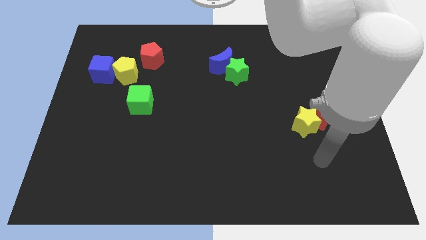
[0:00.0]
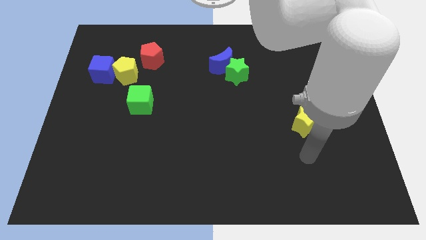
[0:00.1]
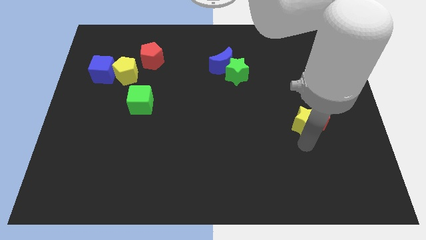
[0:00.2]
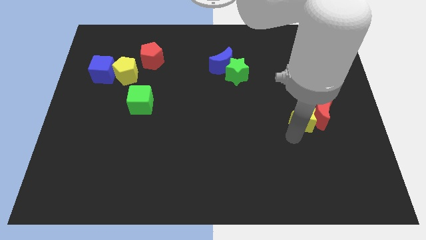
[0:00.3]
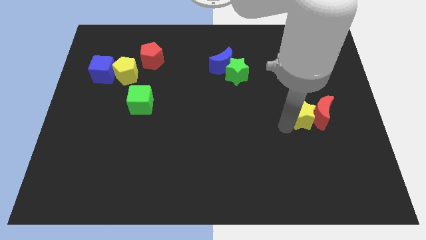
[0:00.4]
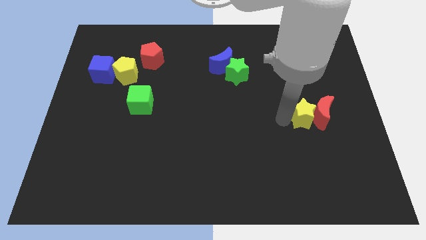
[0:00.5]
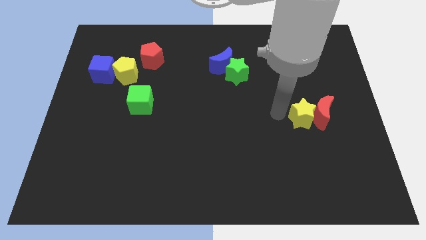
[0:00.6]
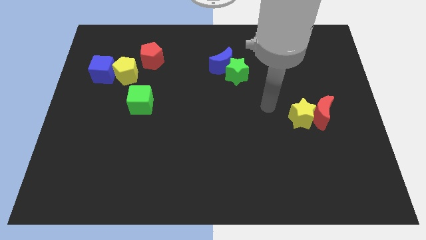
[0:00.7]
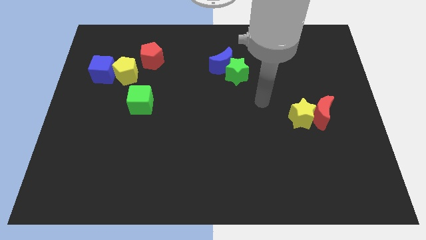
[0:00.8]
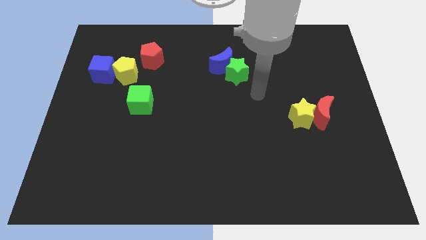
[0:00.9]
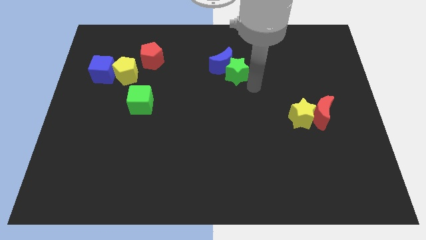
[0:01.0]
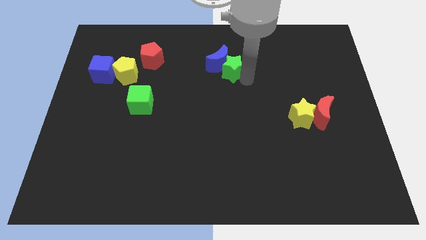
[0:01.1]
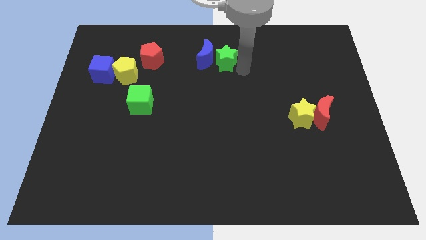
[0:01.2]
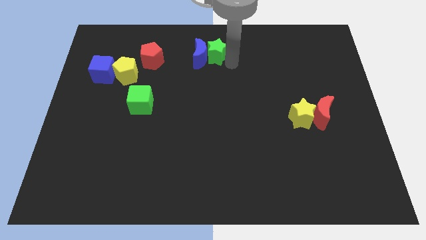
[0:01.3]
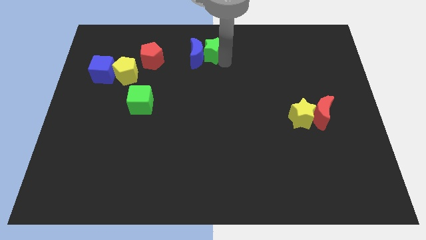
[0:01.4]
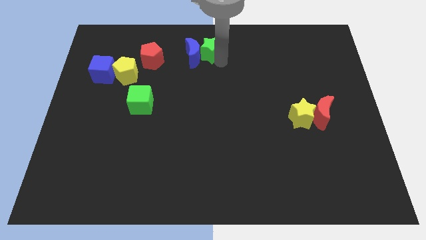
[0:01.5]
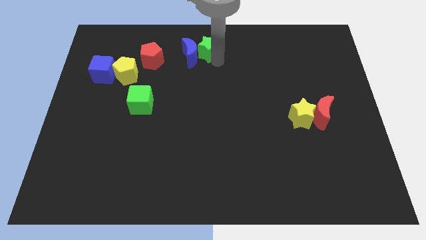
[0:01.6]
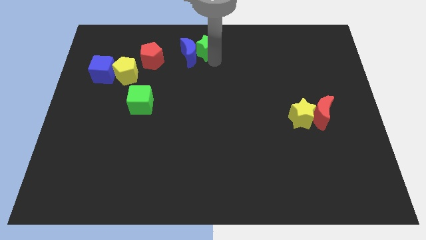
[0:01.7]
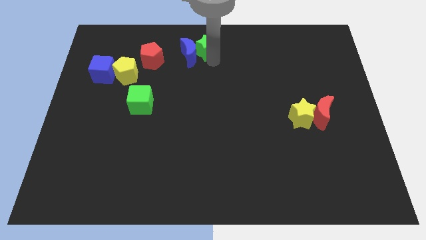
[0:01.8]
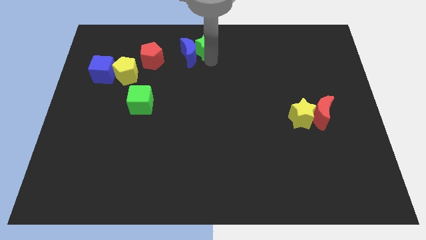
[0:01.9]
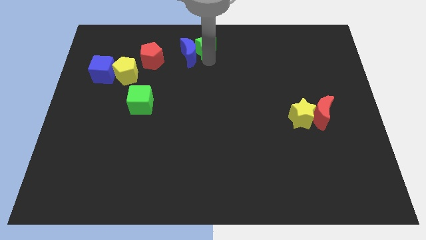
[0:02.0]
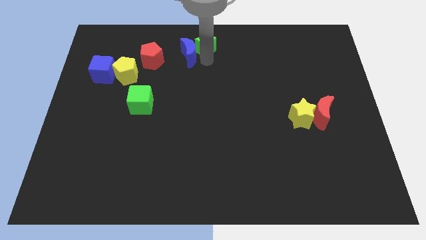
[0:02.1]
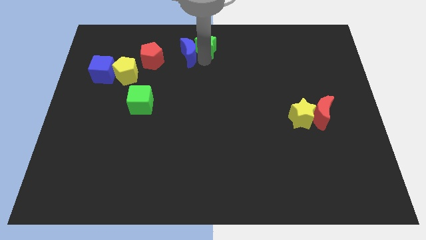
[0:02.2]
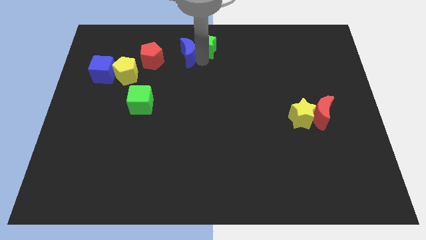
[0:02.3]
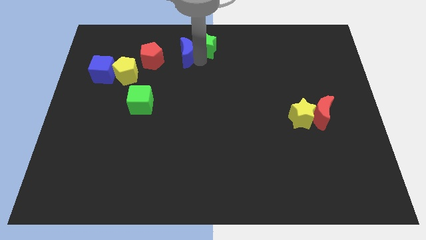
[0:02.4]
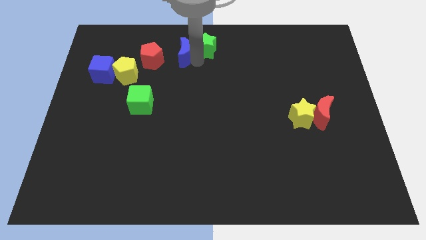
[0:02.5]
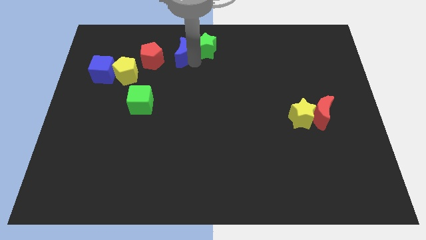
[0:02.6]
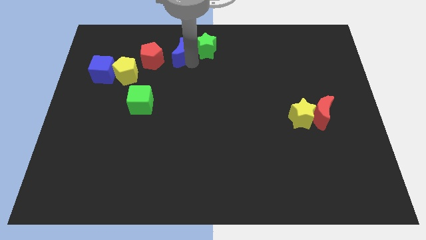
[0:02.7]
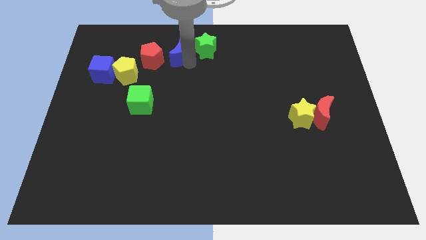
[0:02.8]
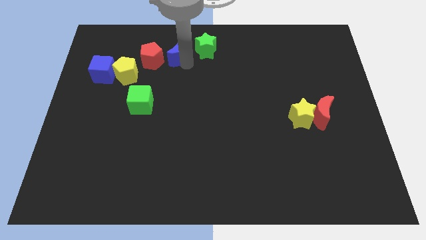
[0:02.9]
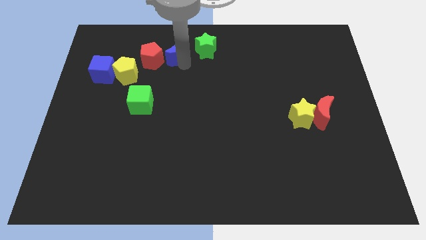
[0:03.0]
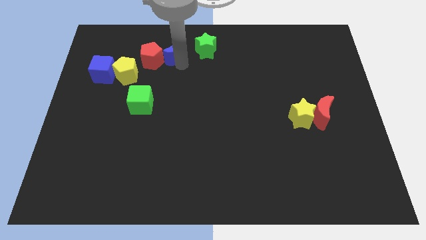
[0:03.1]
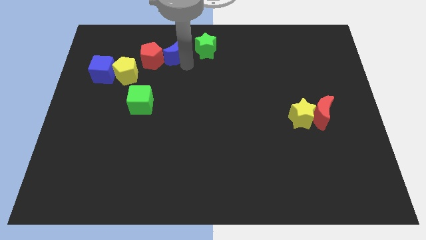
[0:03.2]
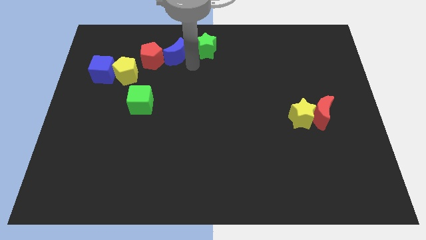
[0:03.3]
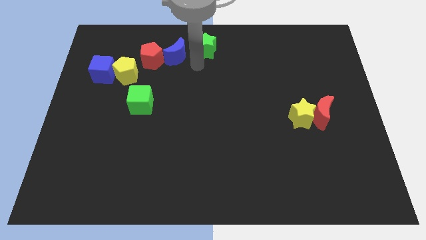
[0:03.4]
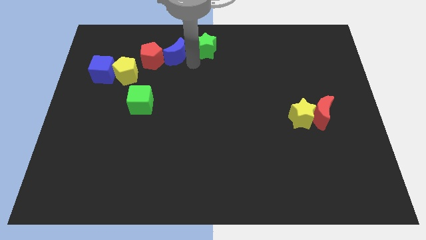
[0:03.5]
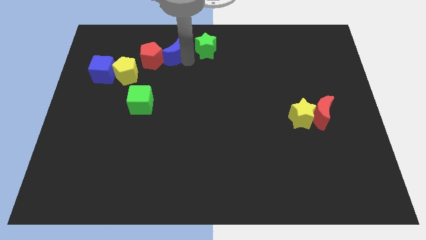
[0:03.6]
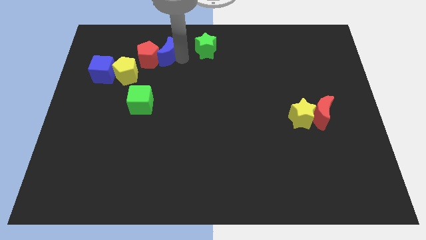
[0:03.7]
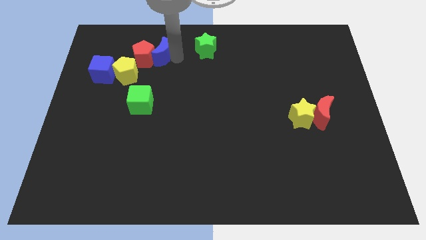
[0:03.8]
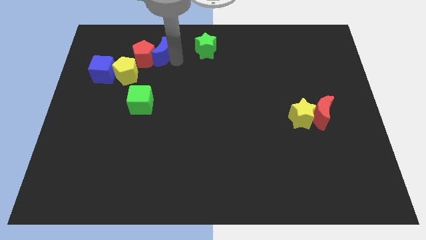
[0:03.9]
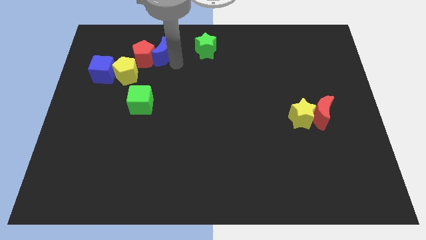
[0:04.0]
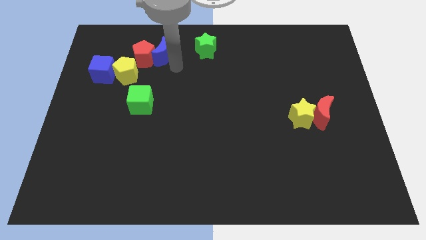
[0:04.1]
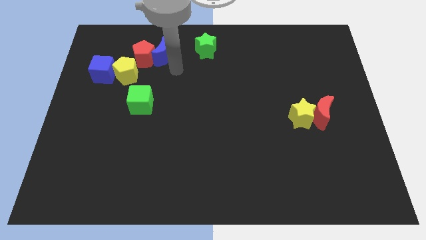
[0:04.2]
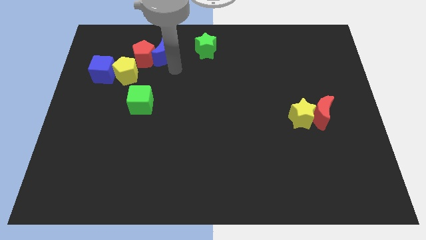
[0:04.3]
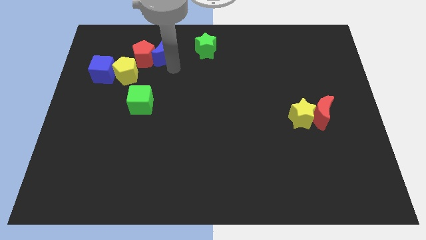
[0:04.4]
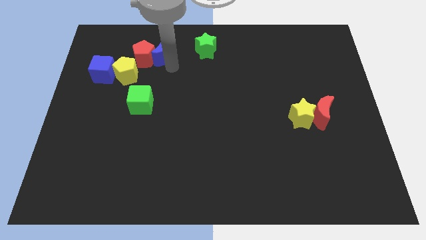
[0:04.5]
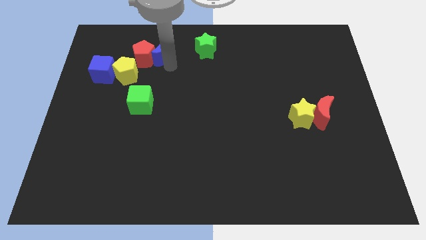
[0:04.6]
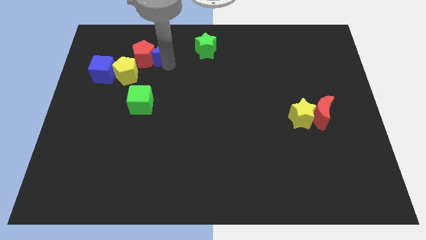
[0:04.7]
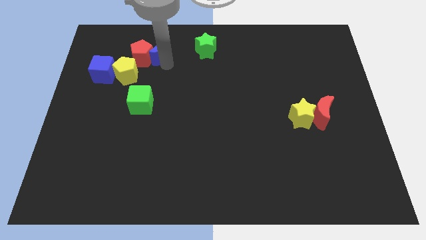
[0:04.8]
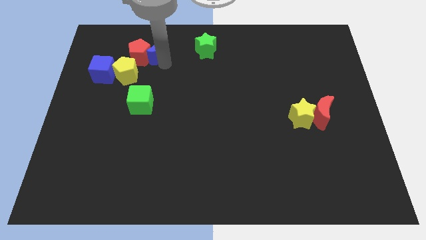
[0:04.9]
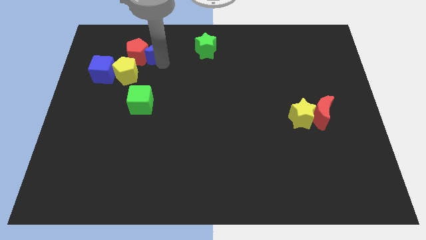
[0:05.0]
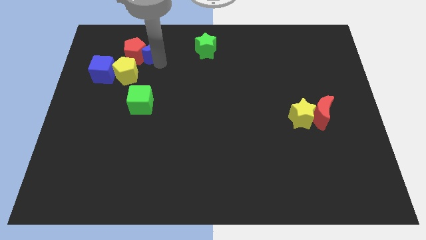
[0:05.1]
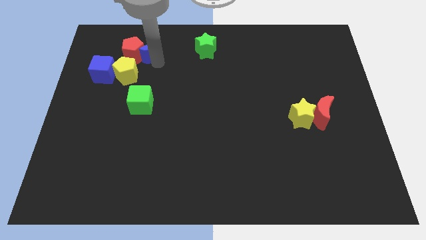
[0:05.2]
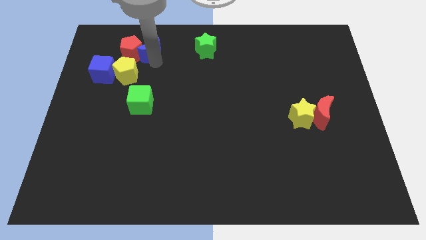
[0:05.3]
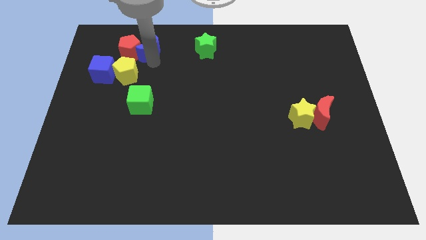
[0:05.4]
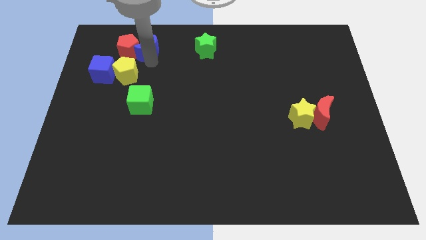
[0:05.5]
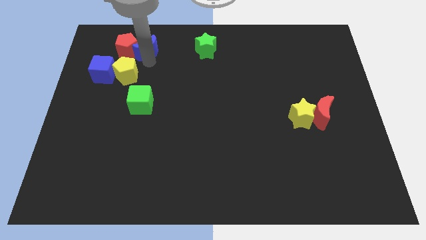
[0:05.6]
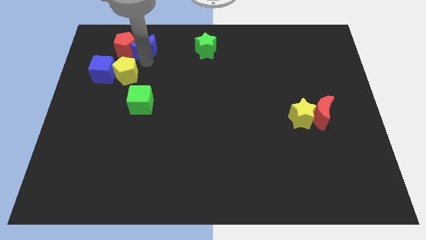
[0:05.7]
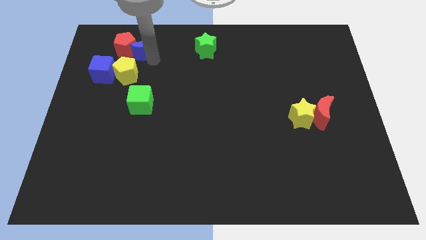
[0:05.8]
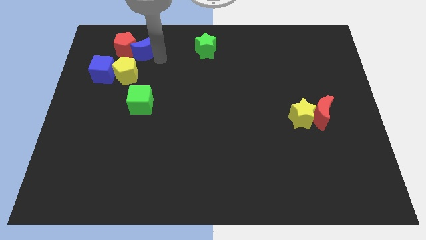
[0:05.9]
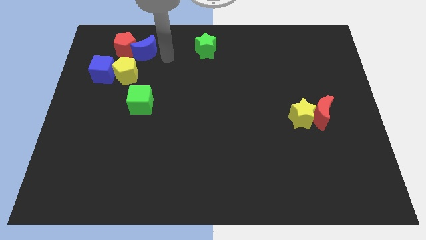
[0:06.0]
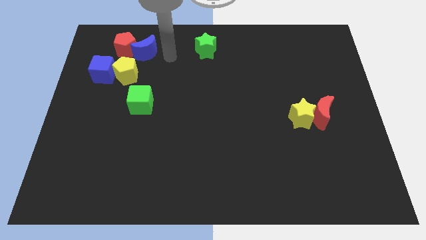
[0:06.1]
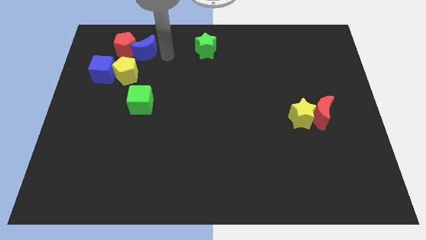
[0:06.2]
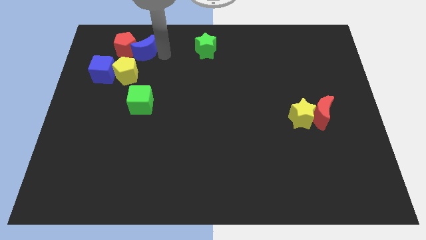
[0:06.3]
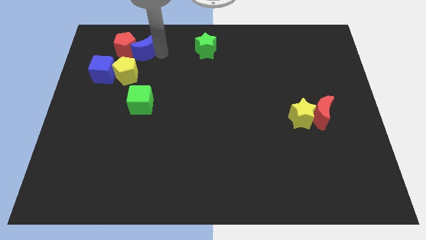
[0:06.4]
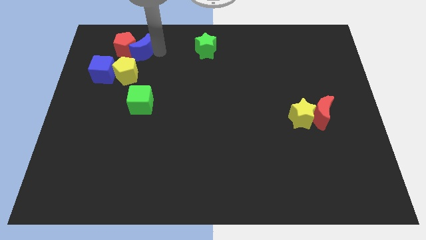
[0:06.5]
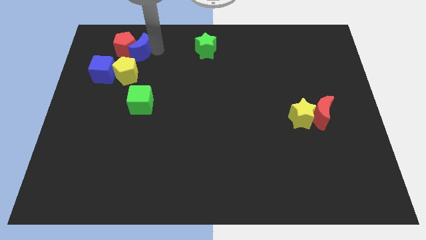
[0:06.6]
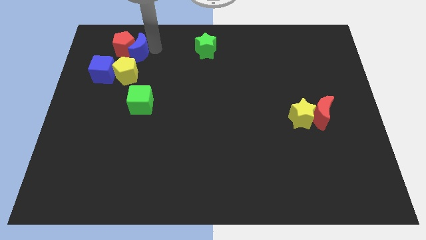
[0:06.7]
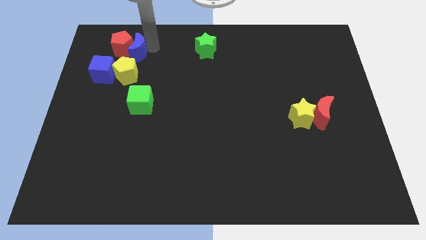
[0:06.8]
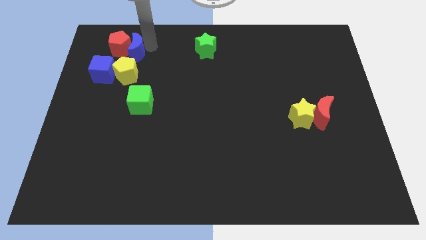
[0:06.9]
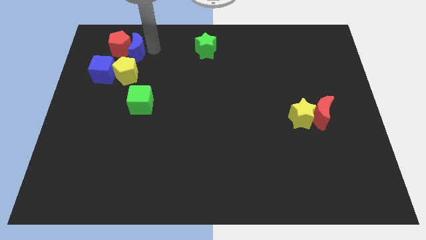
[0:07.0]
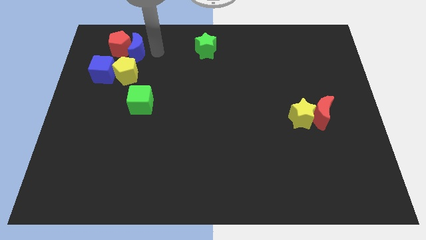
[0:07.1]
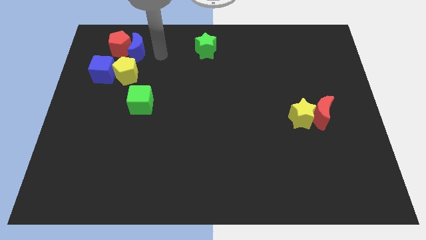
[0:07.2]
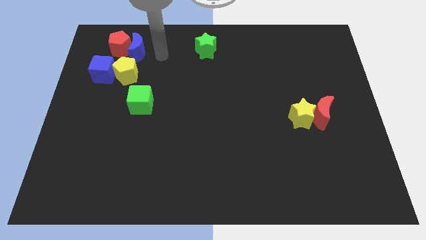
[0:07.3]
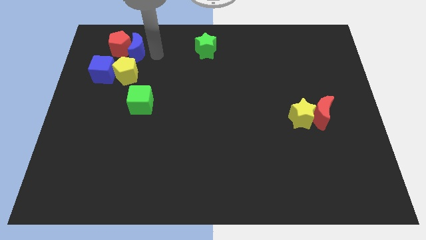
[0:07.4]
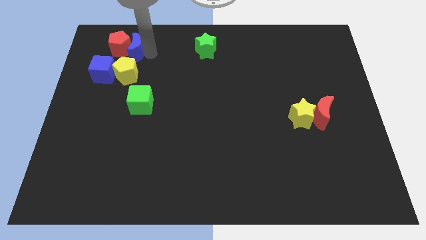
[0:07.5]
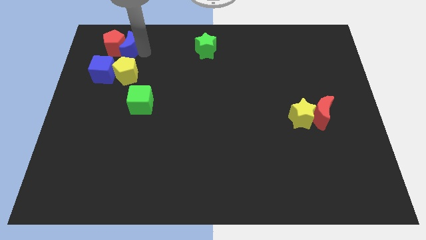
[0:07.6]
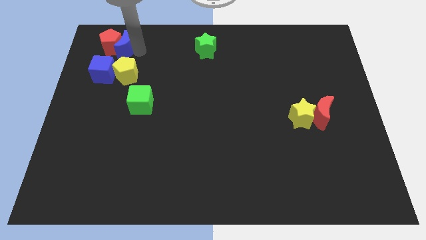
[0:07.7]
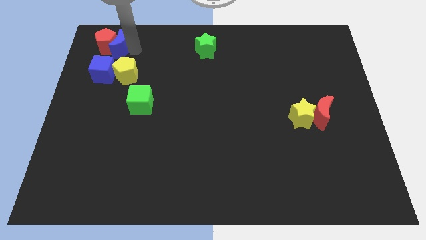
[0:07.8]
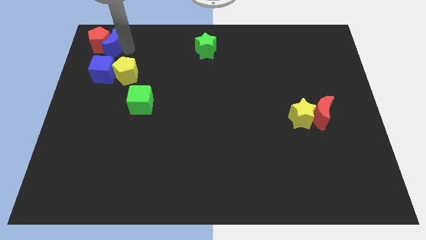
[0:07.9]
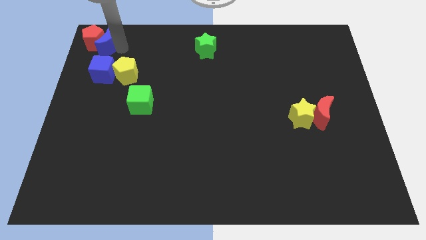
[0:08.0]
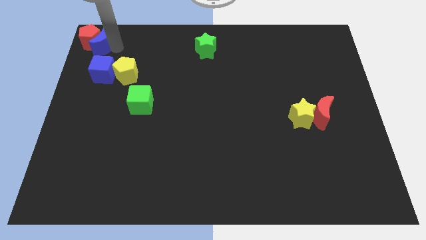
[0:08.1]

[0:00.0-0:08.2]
move the blue moon to the top left of the board
